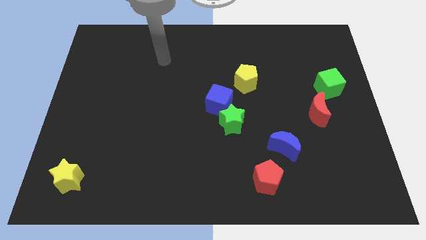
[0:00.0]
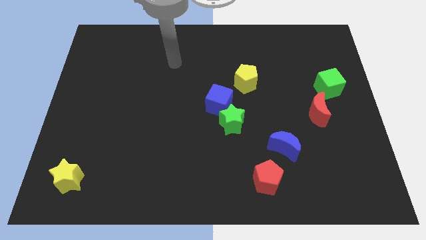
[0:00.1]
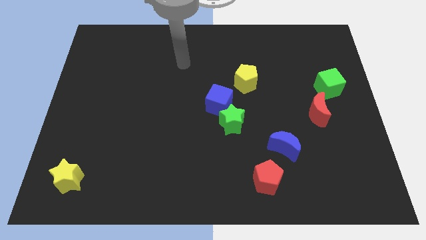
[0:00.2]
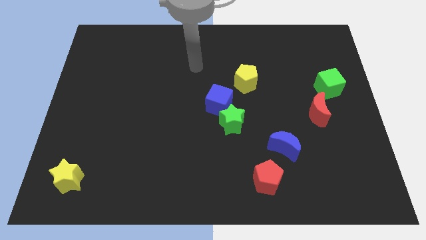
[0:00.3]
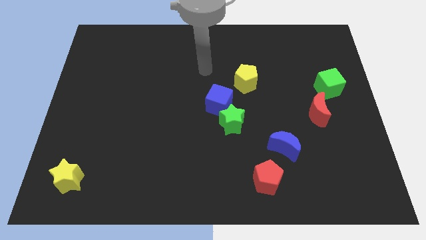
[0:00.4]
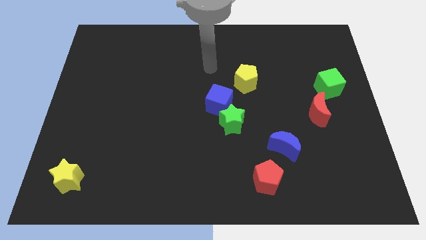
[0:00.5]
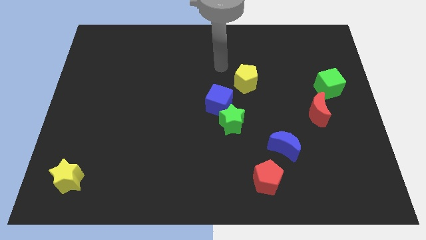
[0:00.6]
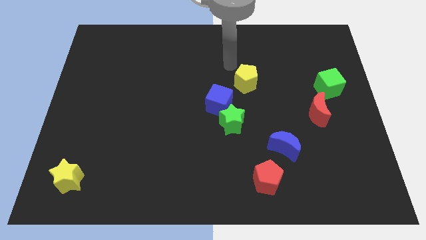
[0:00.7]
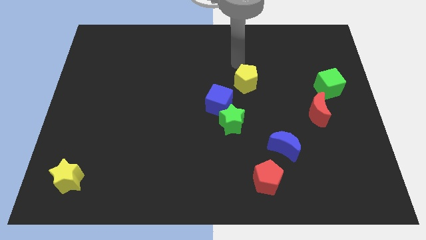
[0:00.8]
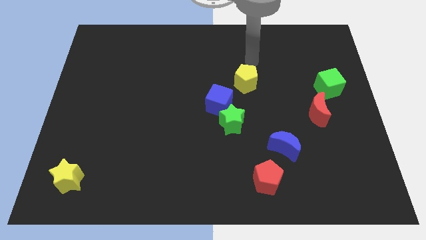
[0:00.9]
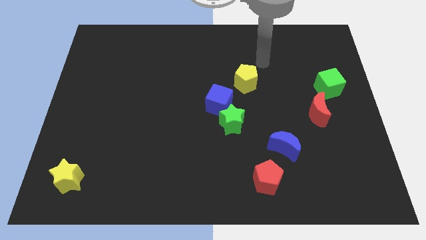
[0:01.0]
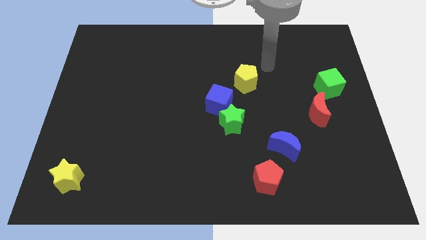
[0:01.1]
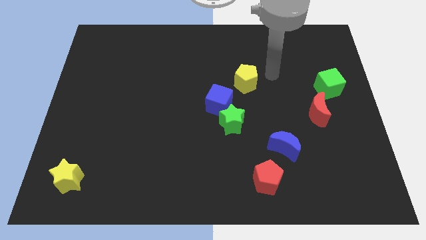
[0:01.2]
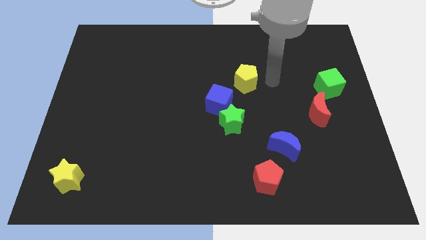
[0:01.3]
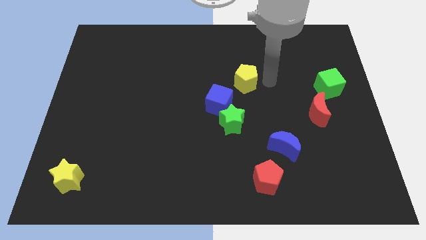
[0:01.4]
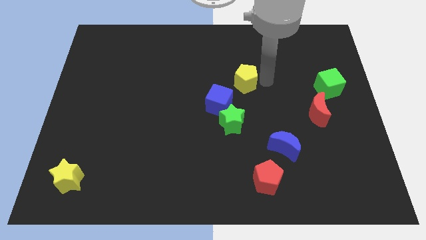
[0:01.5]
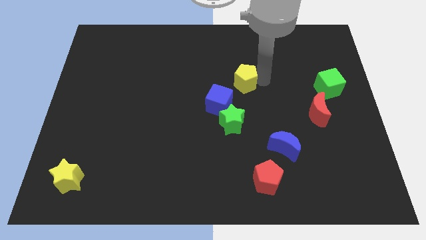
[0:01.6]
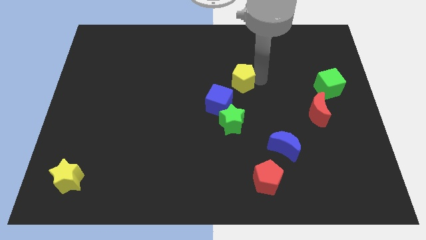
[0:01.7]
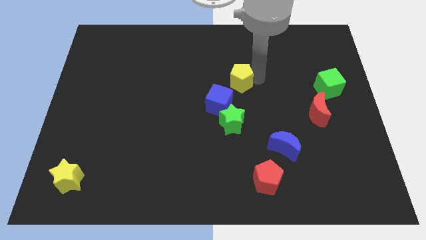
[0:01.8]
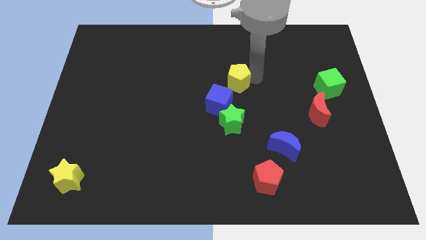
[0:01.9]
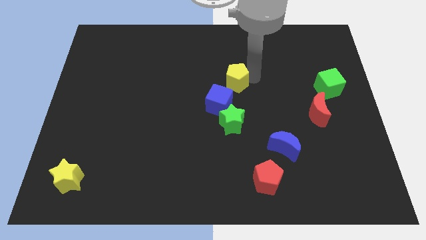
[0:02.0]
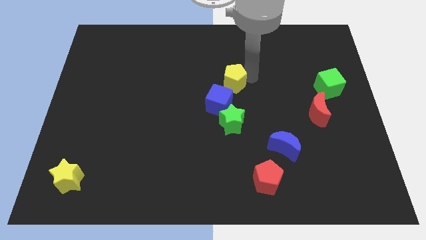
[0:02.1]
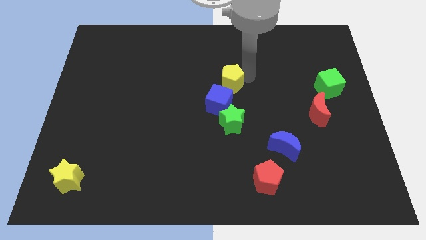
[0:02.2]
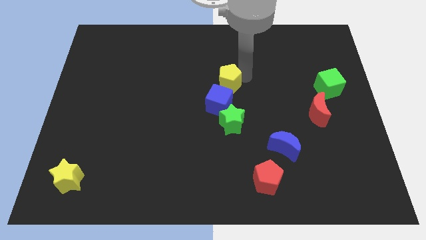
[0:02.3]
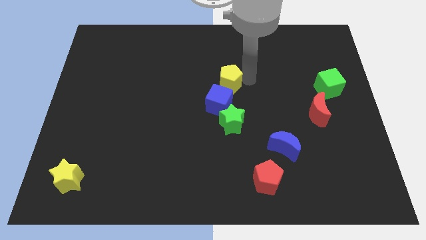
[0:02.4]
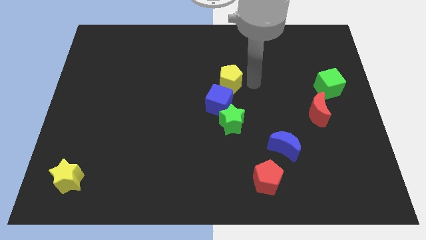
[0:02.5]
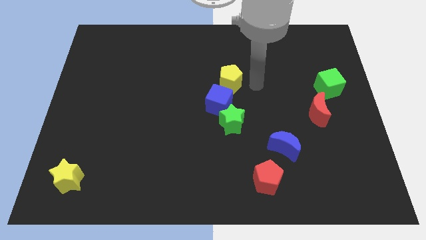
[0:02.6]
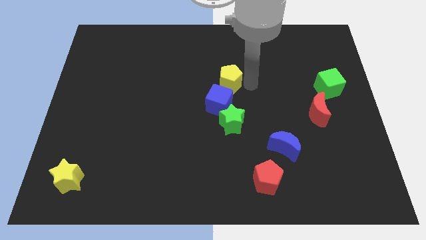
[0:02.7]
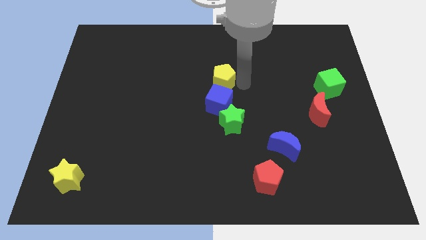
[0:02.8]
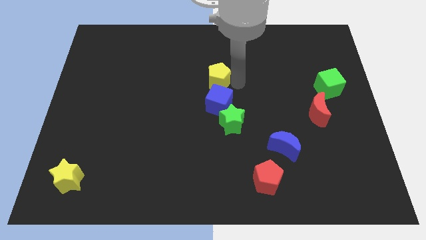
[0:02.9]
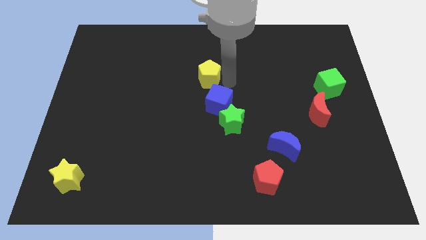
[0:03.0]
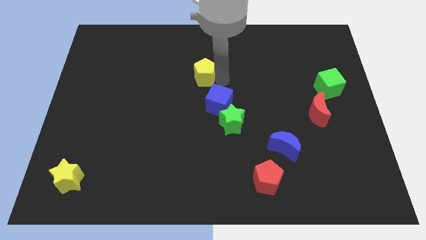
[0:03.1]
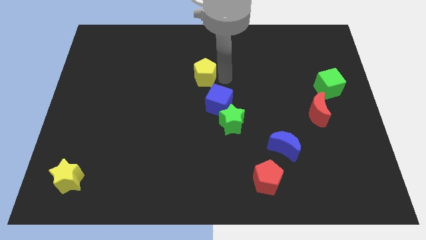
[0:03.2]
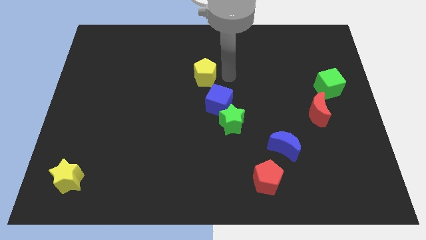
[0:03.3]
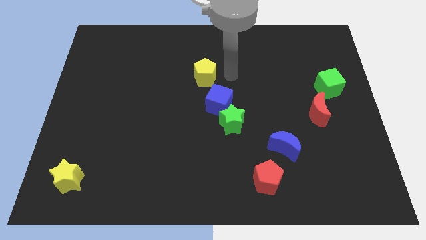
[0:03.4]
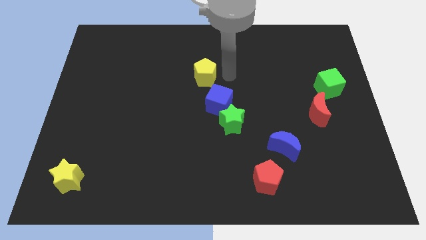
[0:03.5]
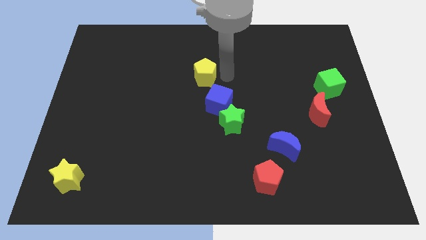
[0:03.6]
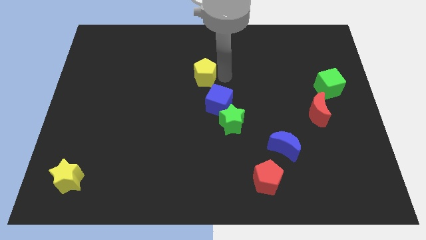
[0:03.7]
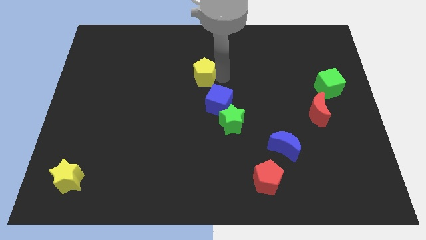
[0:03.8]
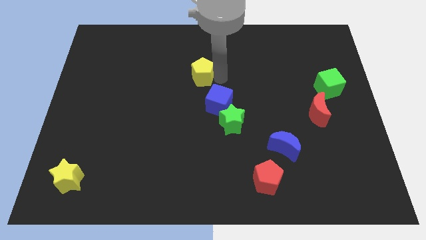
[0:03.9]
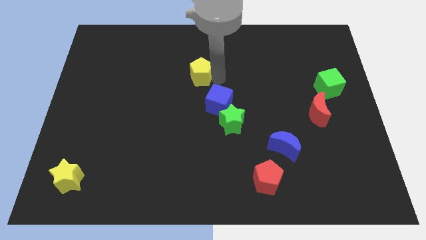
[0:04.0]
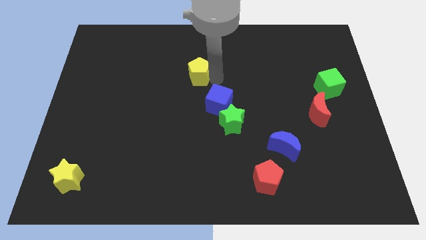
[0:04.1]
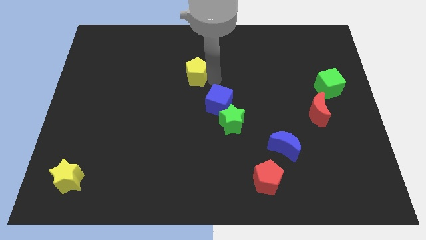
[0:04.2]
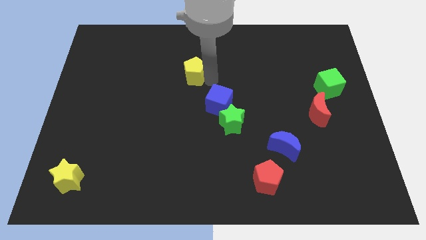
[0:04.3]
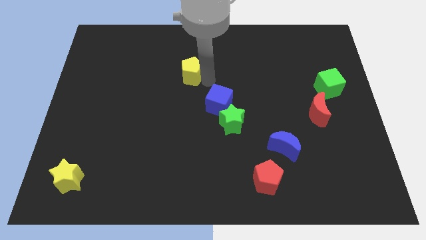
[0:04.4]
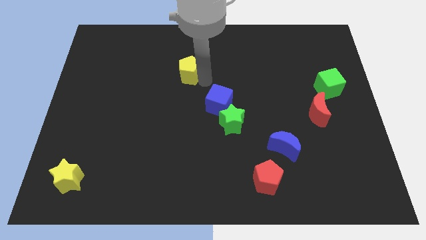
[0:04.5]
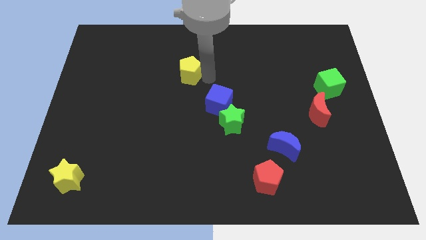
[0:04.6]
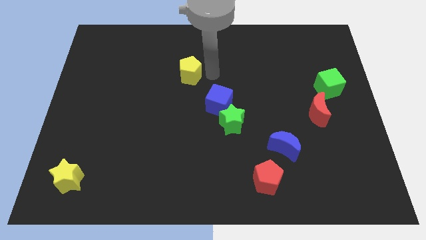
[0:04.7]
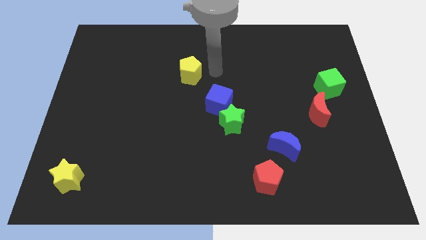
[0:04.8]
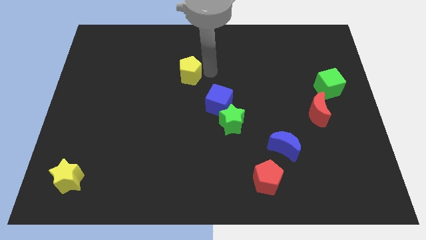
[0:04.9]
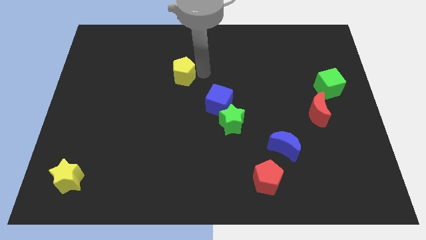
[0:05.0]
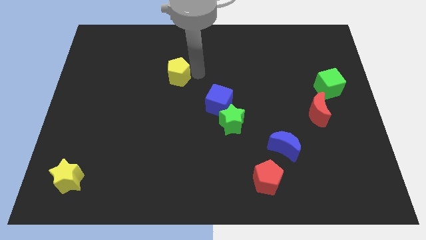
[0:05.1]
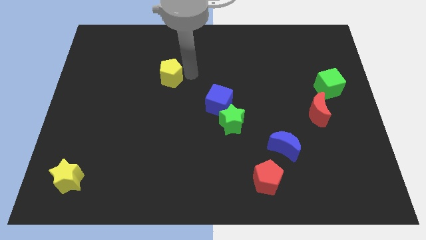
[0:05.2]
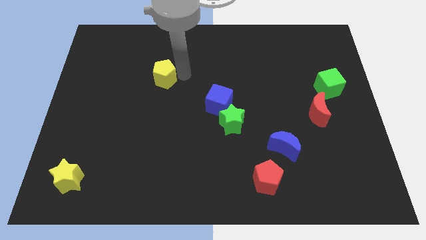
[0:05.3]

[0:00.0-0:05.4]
push the yellow pentagon left

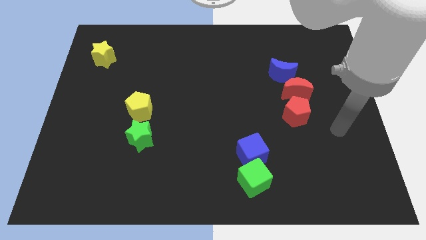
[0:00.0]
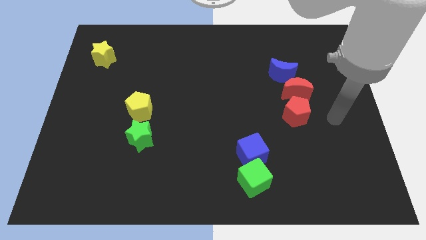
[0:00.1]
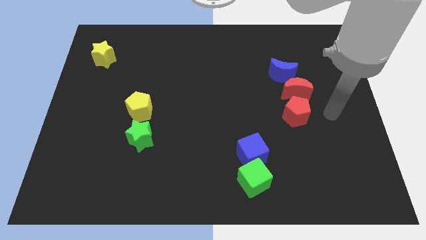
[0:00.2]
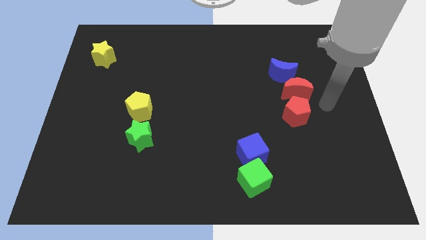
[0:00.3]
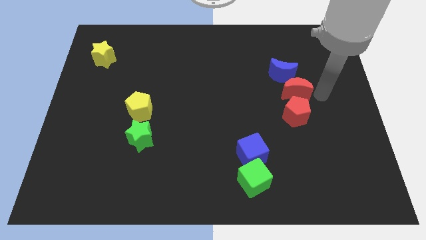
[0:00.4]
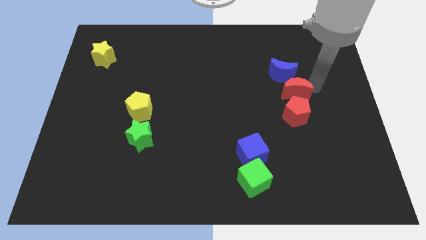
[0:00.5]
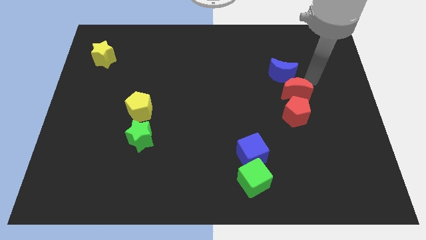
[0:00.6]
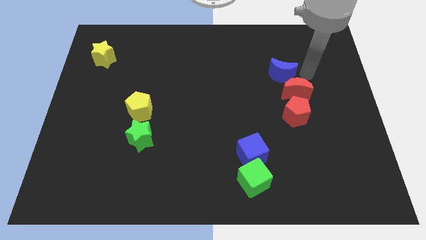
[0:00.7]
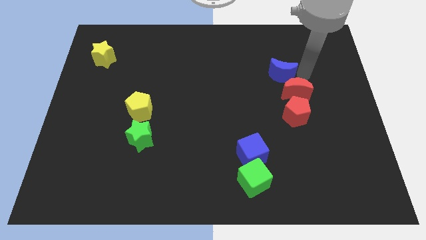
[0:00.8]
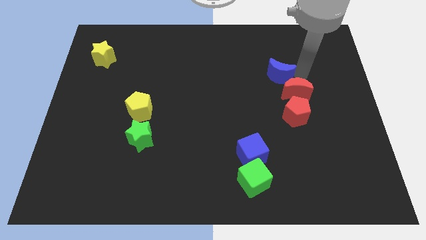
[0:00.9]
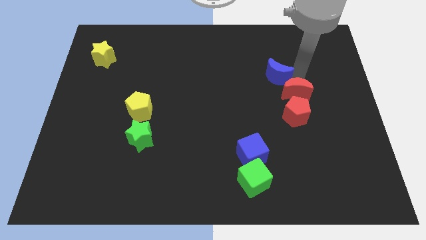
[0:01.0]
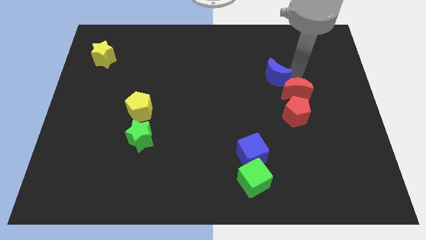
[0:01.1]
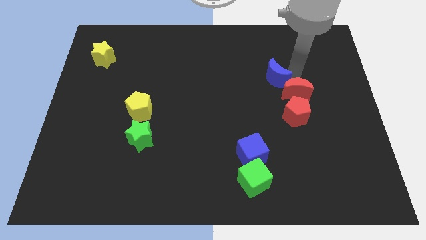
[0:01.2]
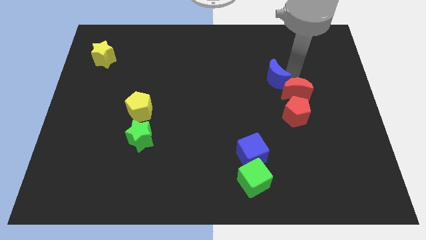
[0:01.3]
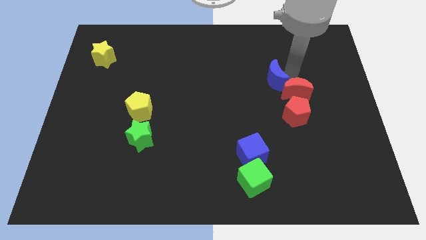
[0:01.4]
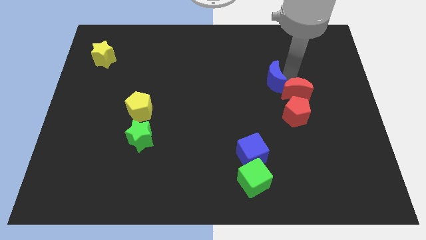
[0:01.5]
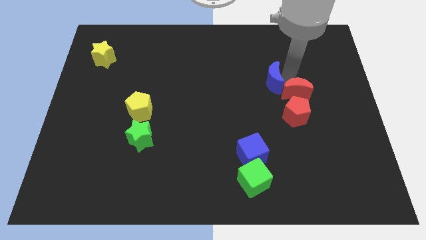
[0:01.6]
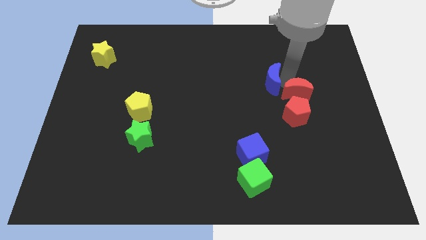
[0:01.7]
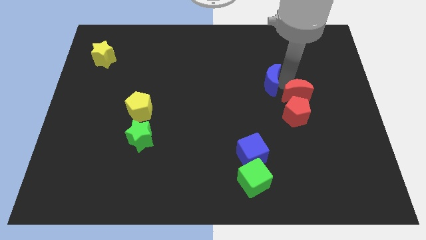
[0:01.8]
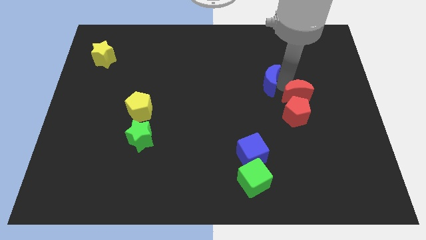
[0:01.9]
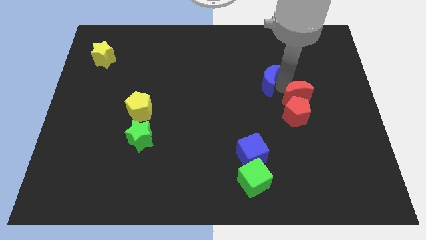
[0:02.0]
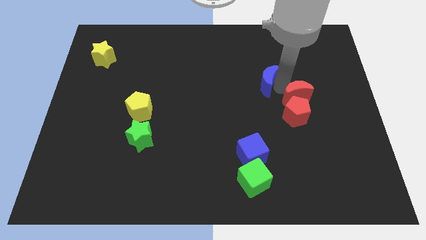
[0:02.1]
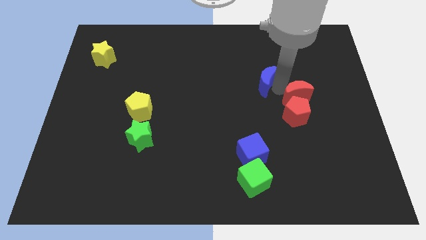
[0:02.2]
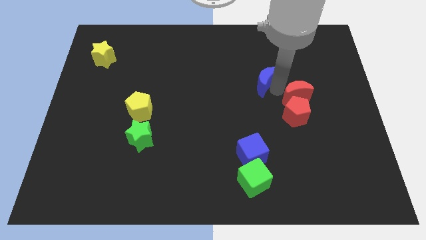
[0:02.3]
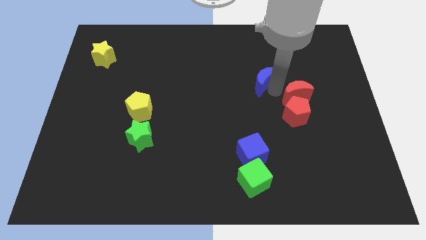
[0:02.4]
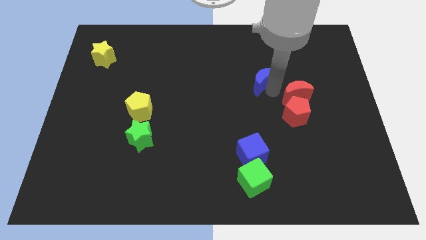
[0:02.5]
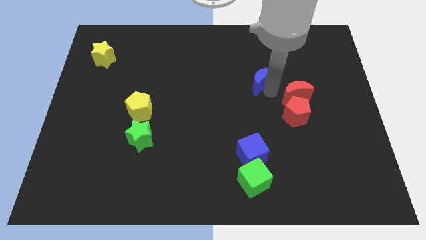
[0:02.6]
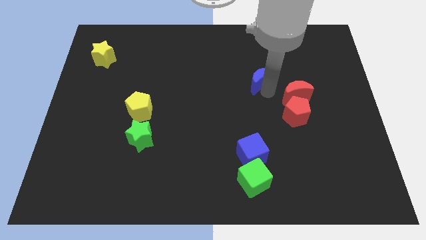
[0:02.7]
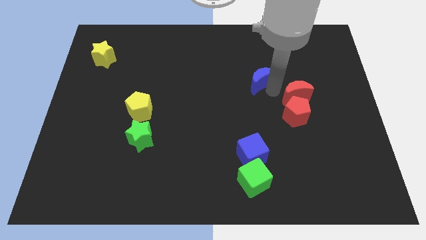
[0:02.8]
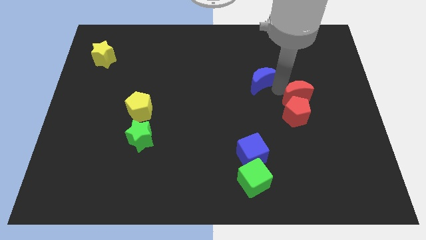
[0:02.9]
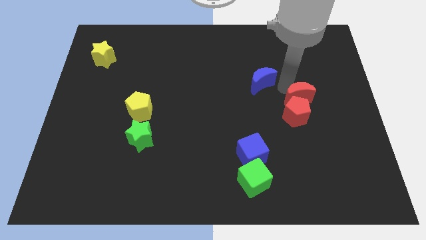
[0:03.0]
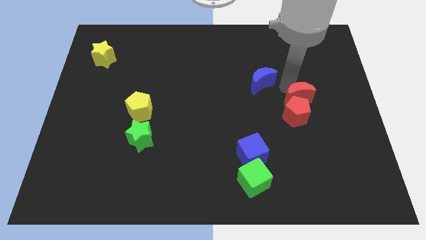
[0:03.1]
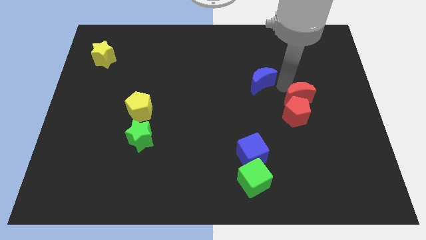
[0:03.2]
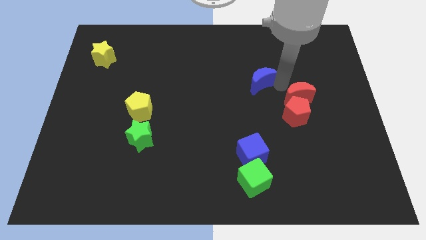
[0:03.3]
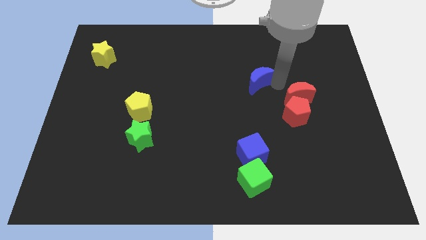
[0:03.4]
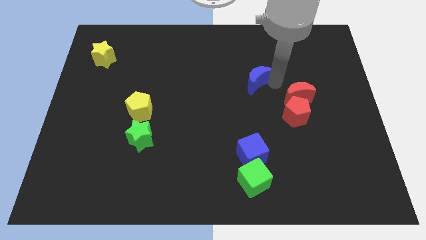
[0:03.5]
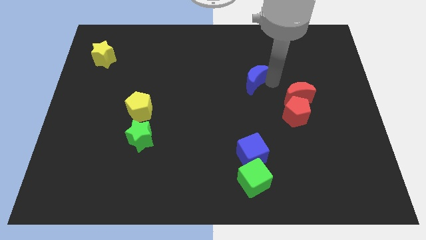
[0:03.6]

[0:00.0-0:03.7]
slide the blue moon to the left somewhat
